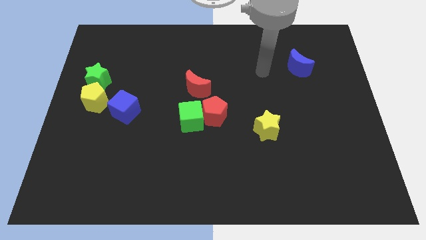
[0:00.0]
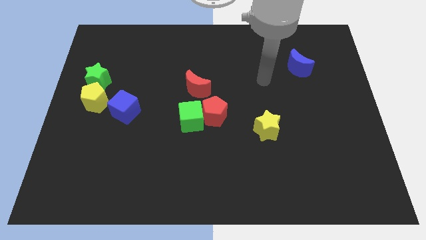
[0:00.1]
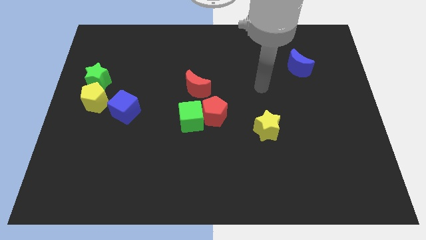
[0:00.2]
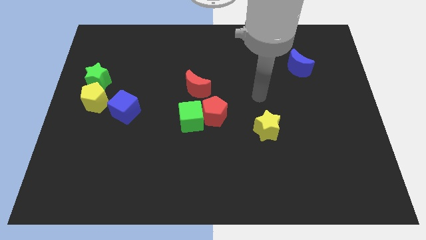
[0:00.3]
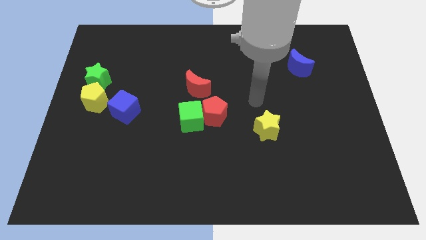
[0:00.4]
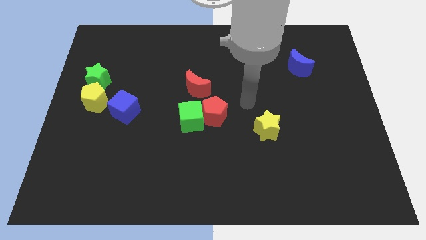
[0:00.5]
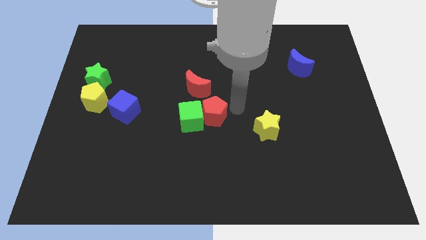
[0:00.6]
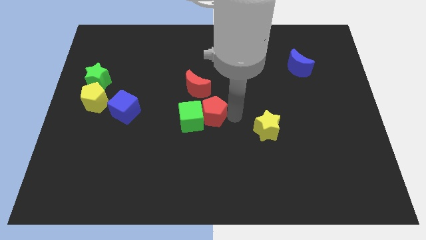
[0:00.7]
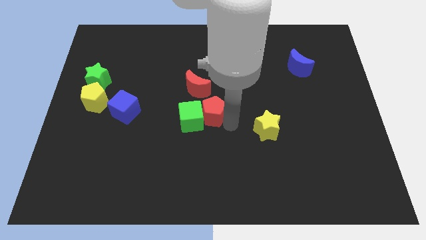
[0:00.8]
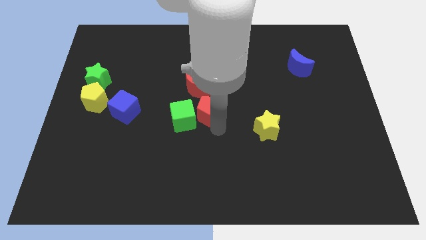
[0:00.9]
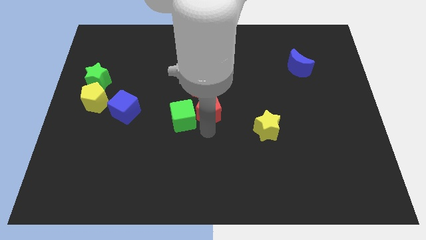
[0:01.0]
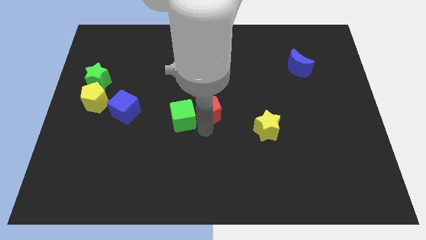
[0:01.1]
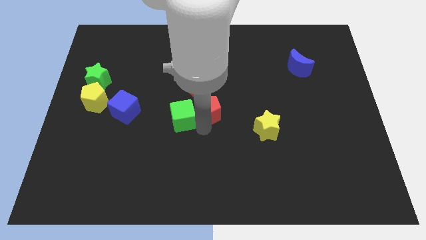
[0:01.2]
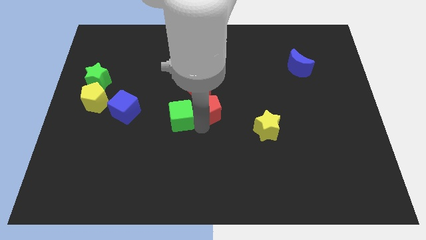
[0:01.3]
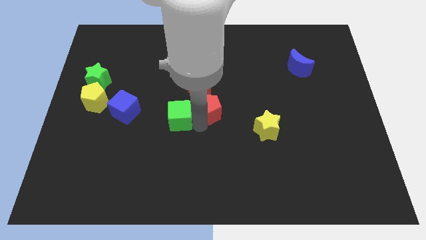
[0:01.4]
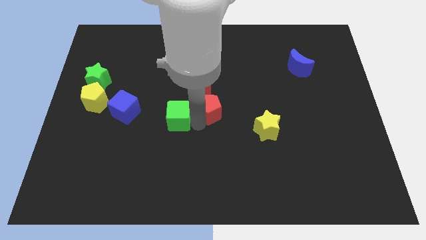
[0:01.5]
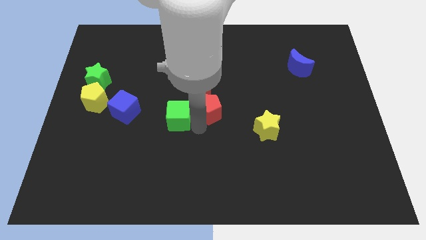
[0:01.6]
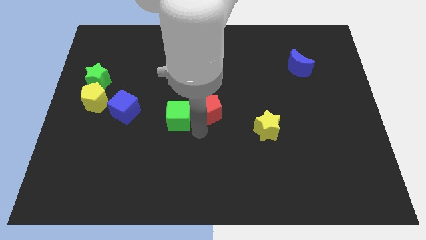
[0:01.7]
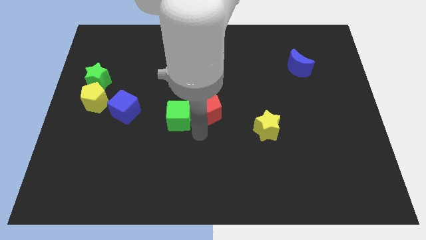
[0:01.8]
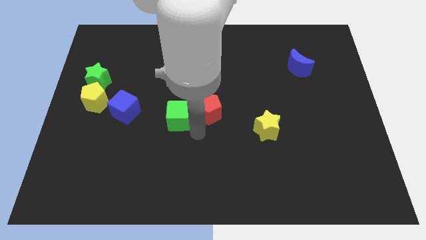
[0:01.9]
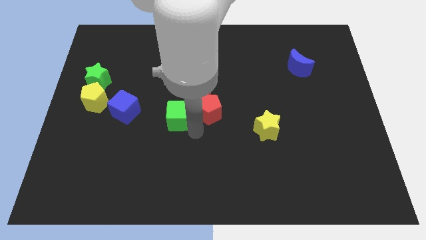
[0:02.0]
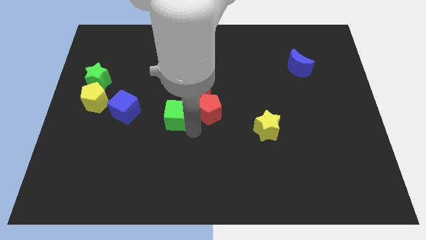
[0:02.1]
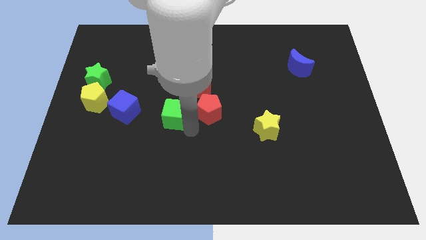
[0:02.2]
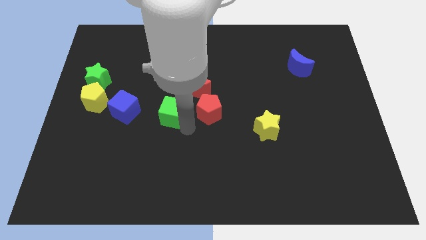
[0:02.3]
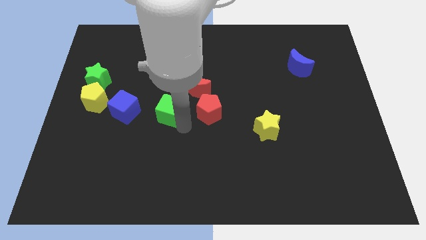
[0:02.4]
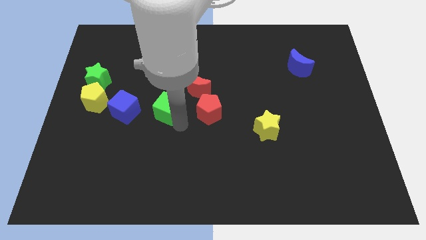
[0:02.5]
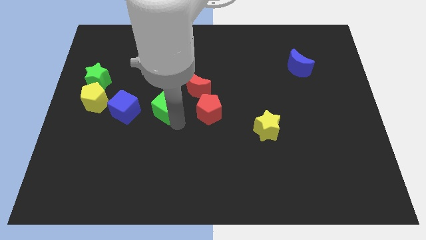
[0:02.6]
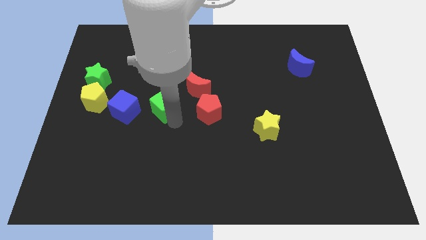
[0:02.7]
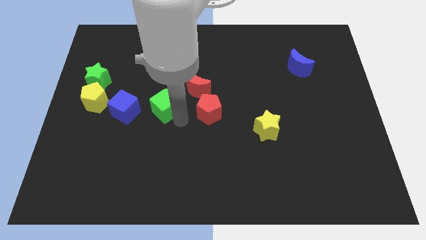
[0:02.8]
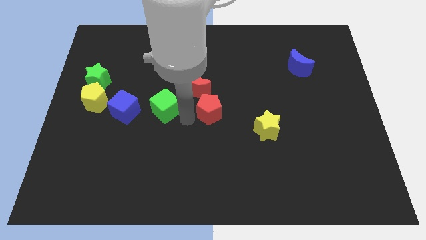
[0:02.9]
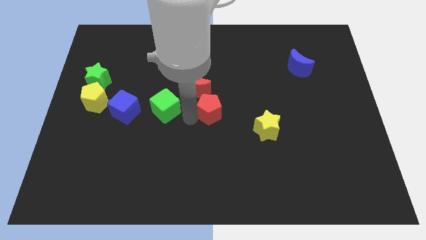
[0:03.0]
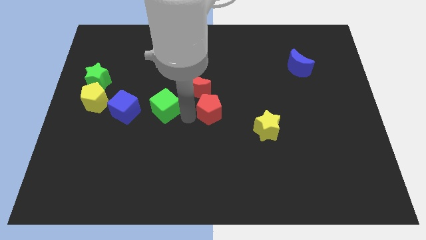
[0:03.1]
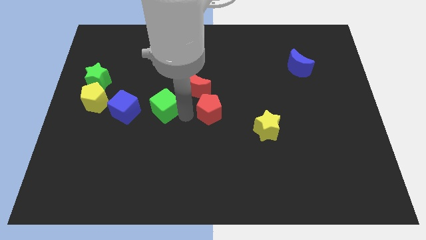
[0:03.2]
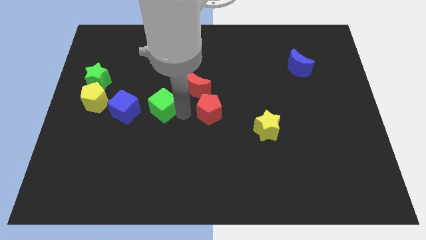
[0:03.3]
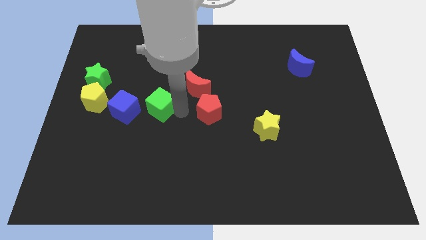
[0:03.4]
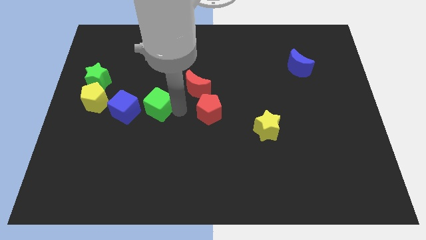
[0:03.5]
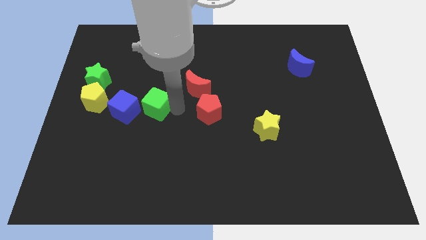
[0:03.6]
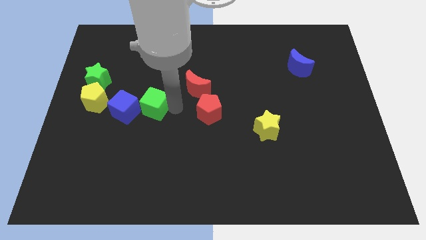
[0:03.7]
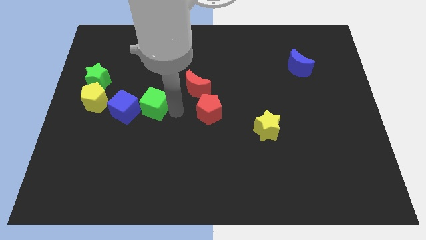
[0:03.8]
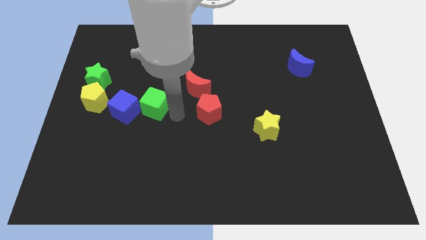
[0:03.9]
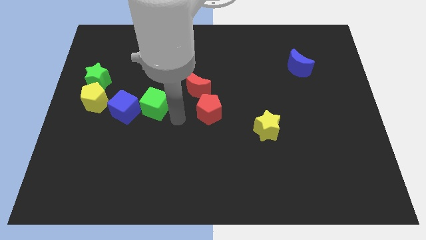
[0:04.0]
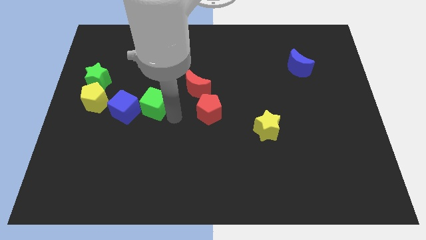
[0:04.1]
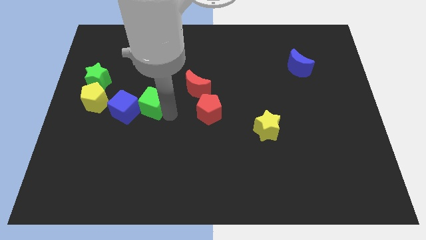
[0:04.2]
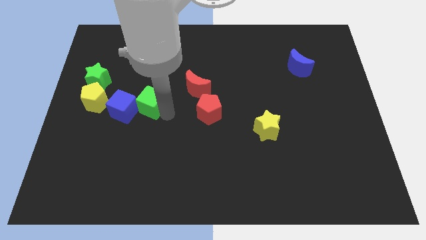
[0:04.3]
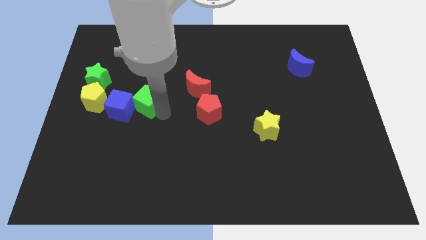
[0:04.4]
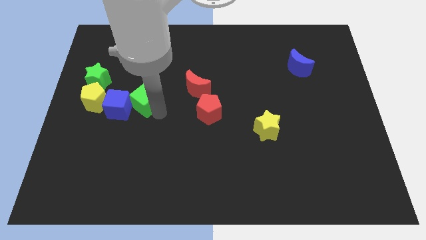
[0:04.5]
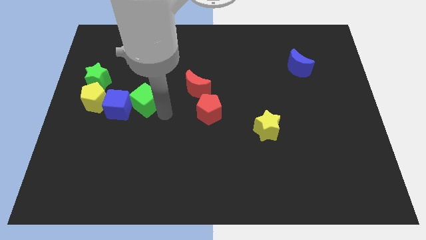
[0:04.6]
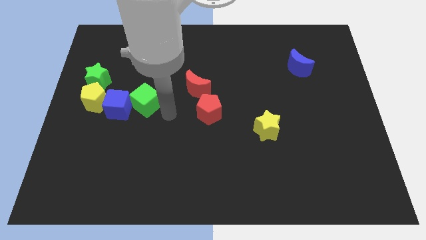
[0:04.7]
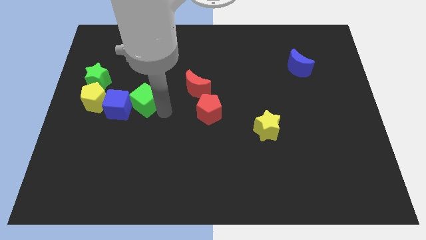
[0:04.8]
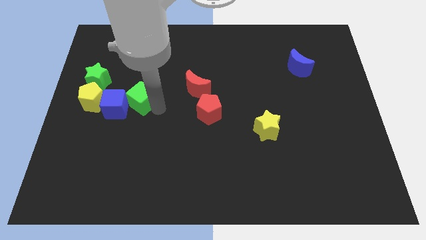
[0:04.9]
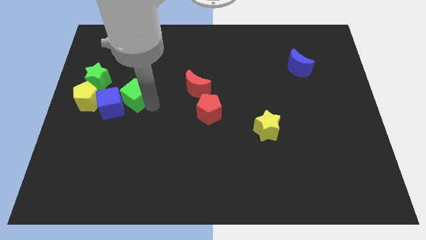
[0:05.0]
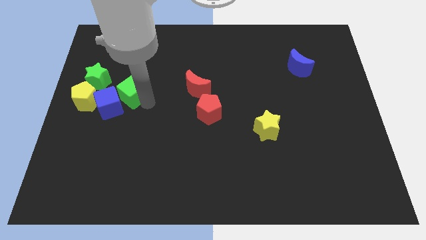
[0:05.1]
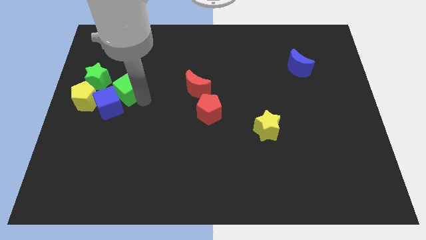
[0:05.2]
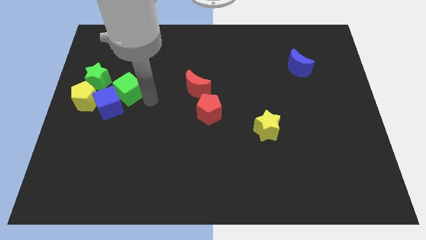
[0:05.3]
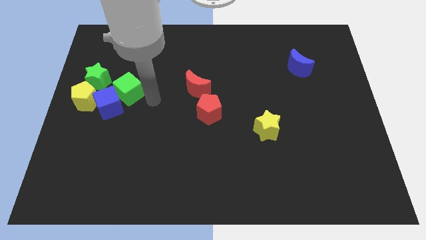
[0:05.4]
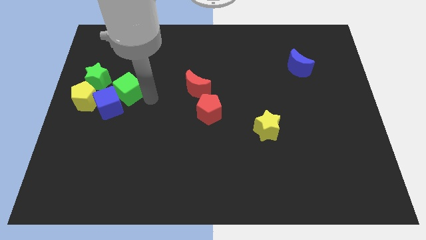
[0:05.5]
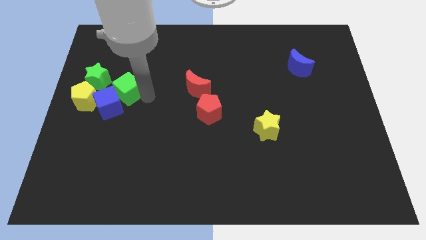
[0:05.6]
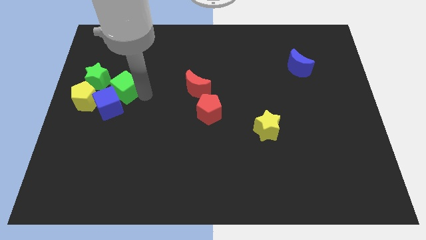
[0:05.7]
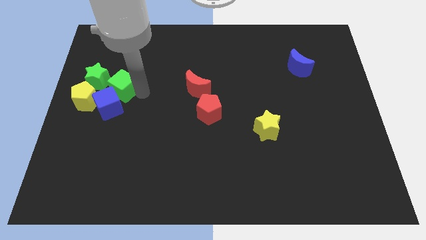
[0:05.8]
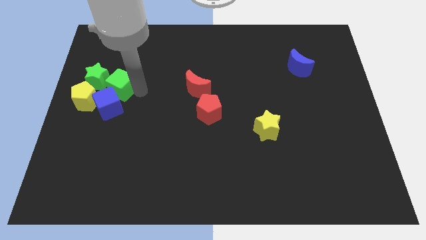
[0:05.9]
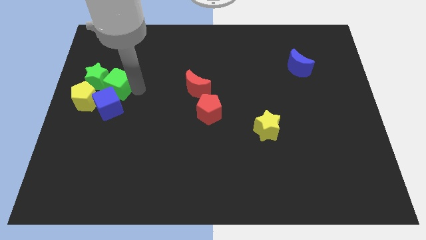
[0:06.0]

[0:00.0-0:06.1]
push the green cube to the green star

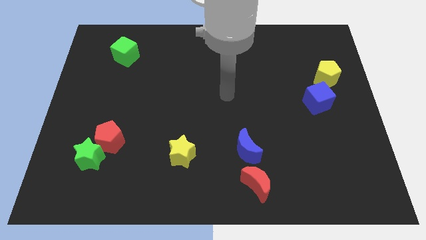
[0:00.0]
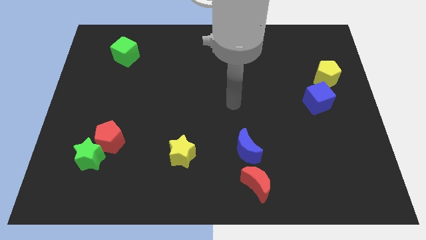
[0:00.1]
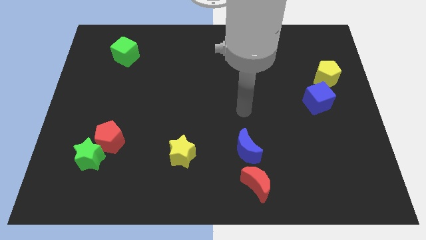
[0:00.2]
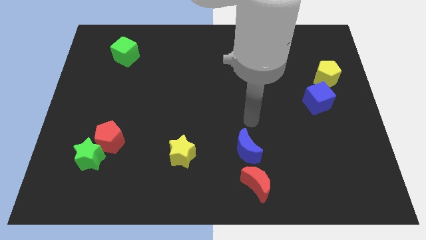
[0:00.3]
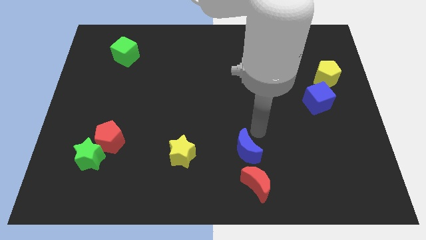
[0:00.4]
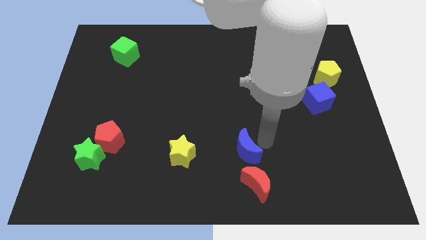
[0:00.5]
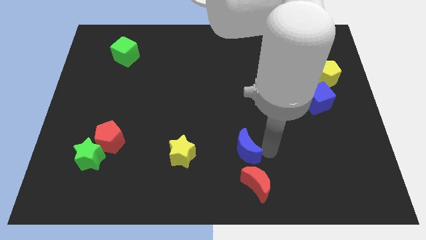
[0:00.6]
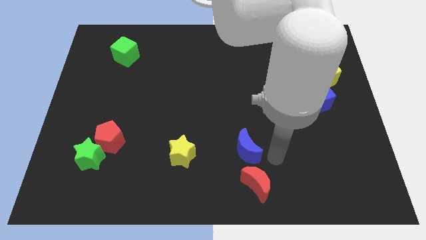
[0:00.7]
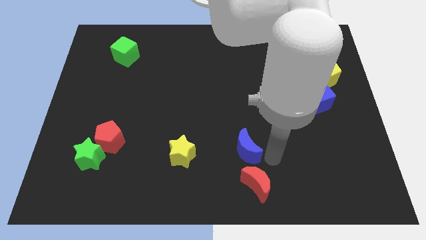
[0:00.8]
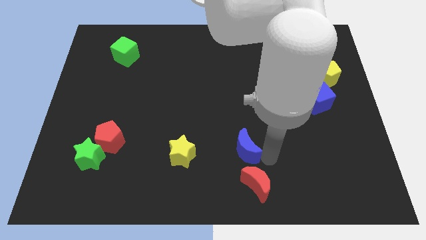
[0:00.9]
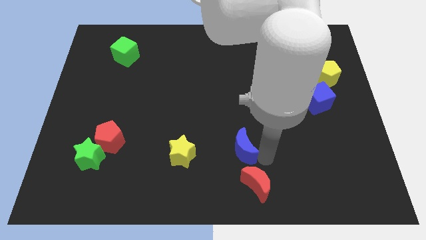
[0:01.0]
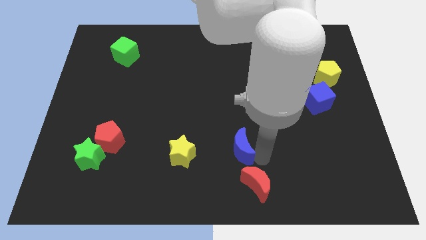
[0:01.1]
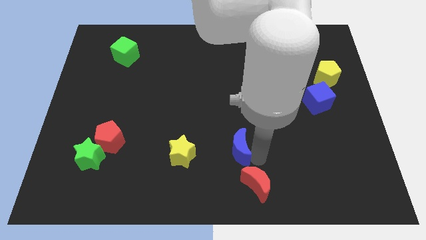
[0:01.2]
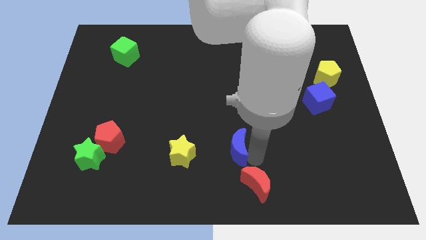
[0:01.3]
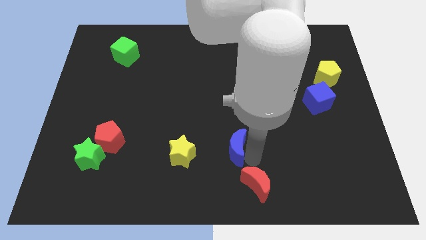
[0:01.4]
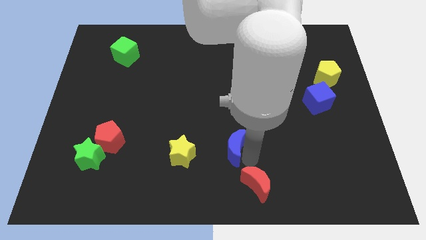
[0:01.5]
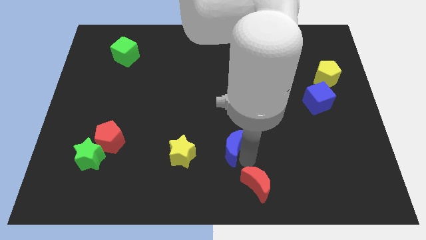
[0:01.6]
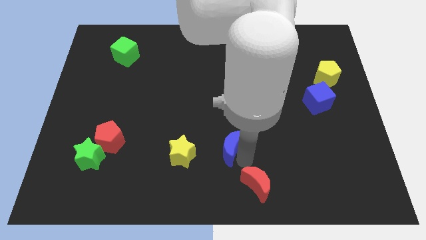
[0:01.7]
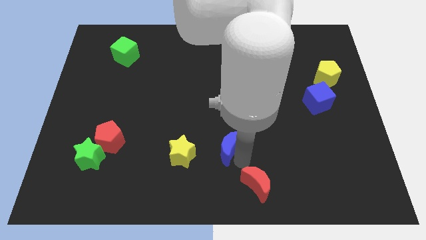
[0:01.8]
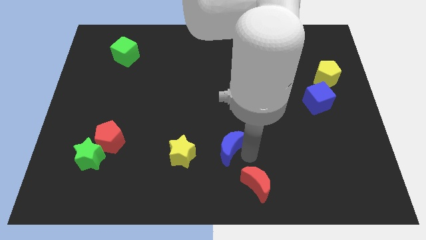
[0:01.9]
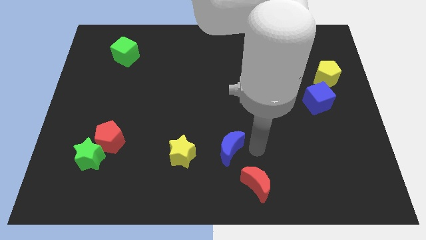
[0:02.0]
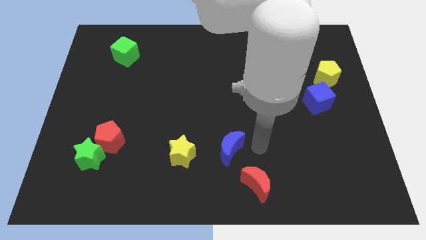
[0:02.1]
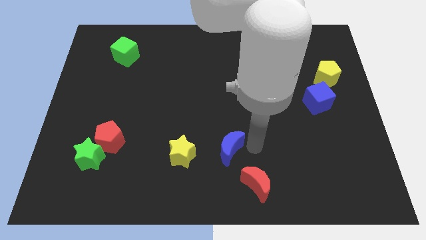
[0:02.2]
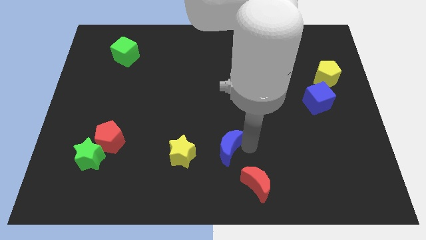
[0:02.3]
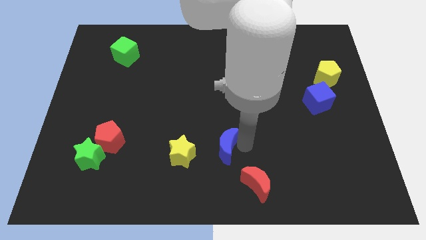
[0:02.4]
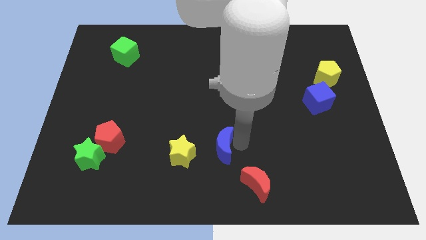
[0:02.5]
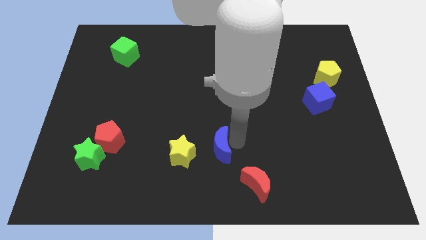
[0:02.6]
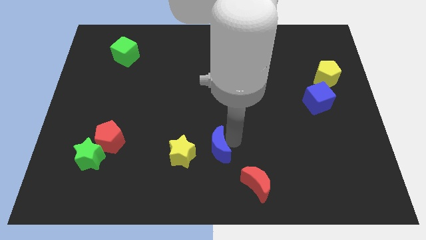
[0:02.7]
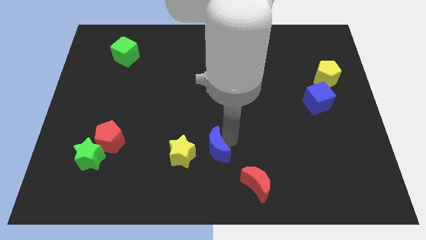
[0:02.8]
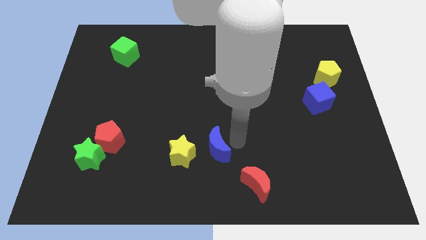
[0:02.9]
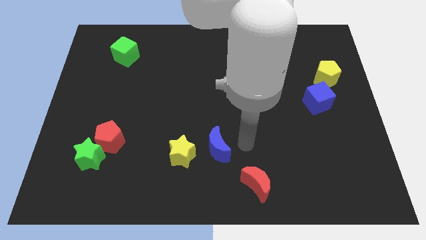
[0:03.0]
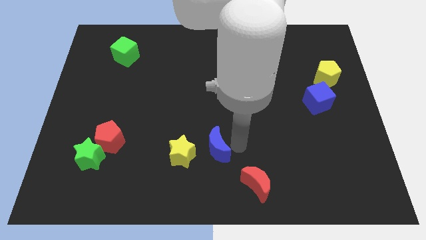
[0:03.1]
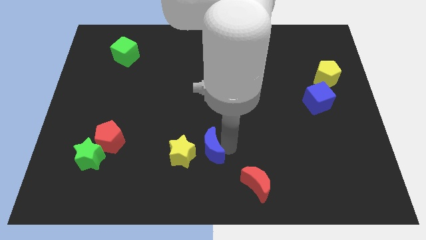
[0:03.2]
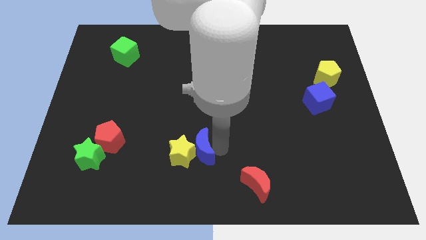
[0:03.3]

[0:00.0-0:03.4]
slide the blue moon close to the yellow star
